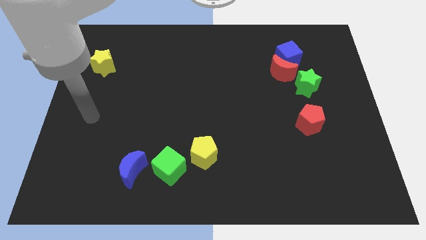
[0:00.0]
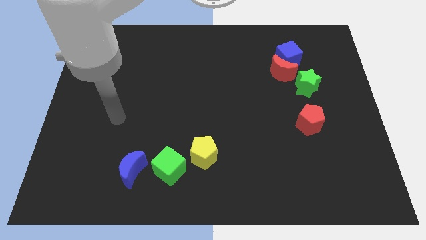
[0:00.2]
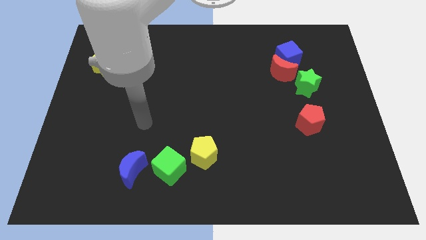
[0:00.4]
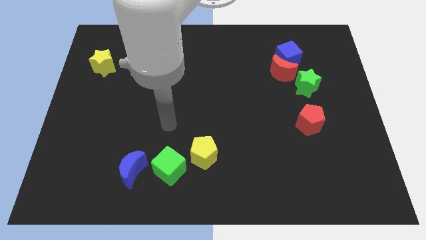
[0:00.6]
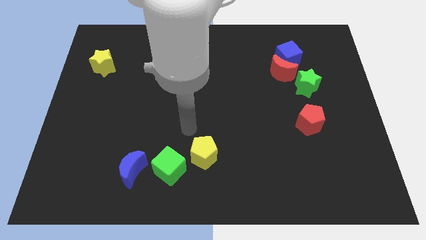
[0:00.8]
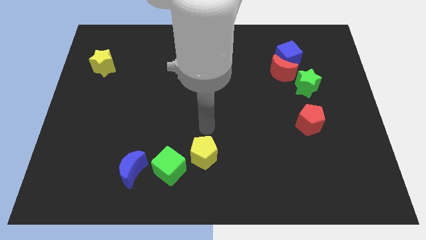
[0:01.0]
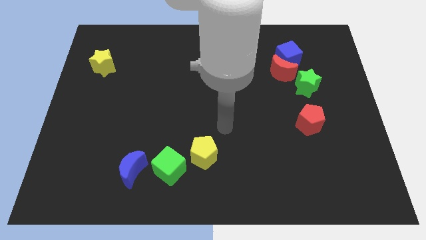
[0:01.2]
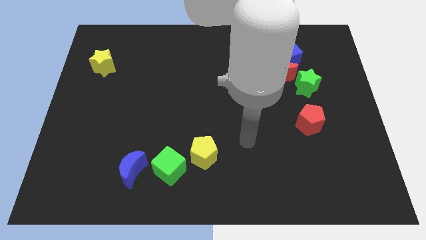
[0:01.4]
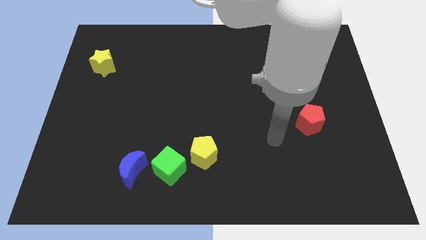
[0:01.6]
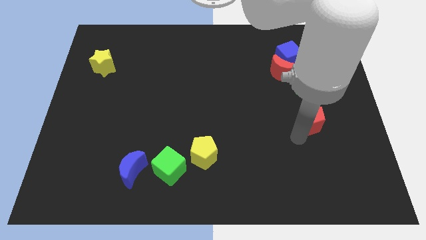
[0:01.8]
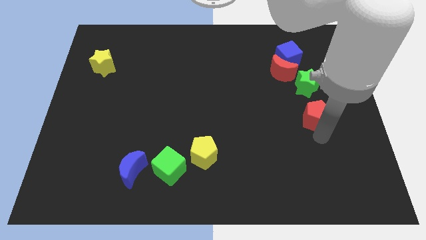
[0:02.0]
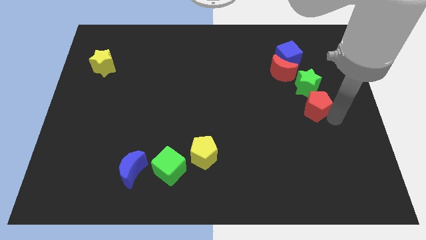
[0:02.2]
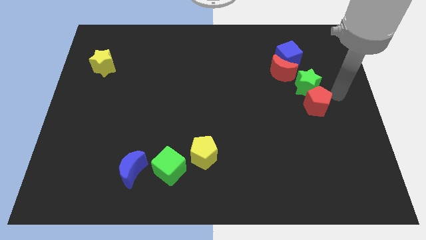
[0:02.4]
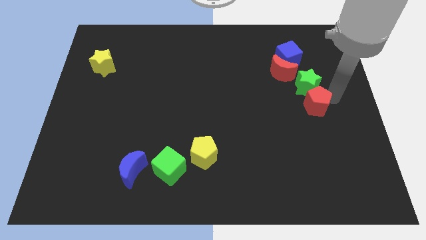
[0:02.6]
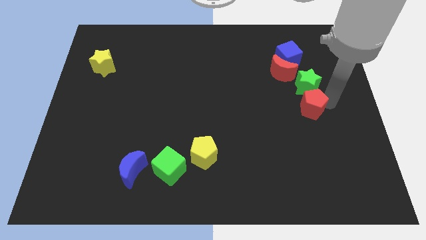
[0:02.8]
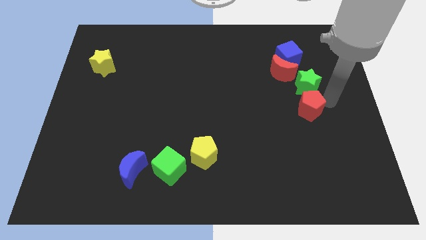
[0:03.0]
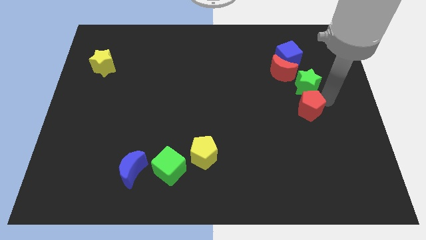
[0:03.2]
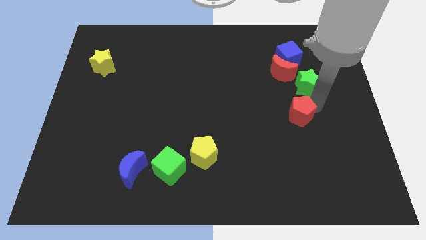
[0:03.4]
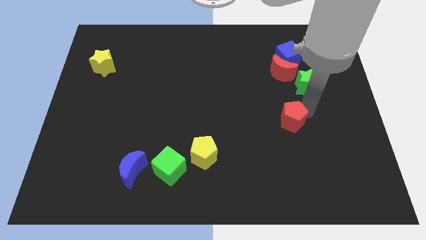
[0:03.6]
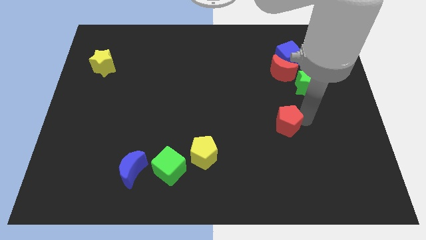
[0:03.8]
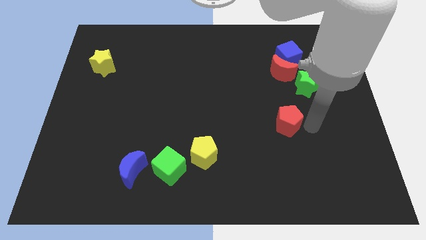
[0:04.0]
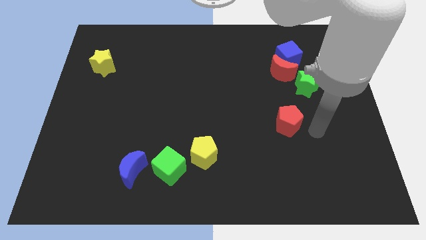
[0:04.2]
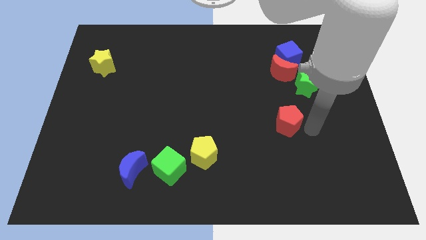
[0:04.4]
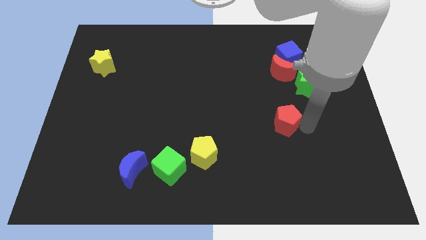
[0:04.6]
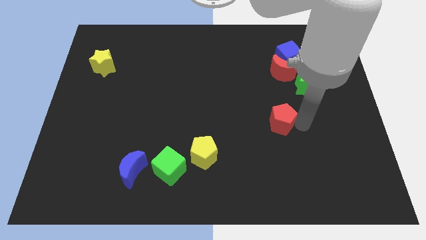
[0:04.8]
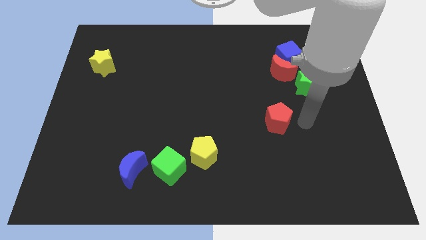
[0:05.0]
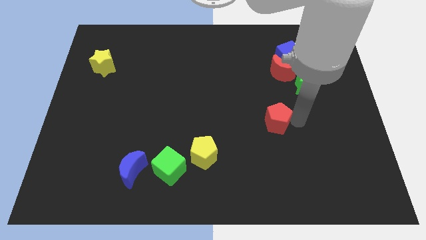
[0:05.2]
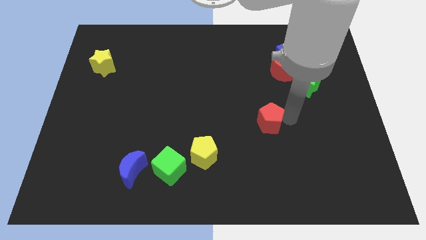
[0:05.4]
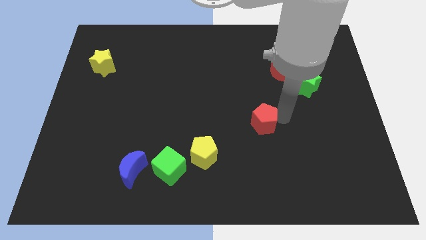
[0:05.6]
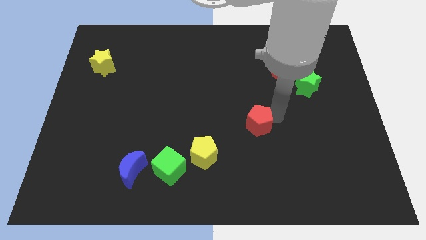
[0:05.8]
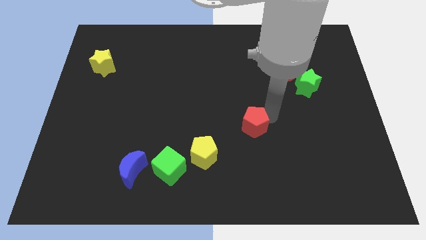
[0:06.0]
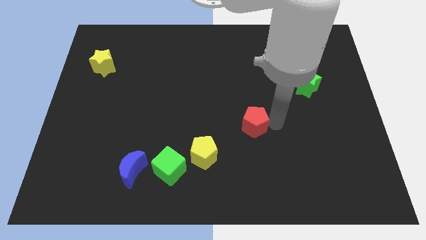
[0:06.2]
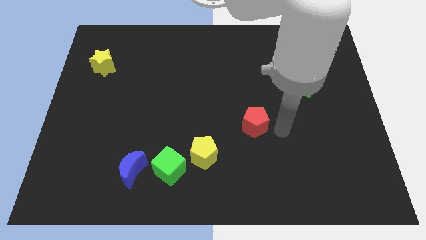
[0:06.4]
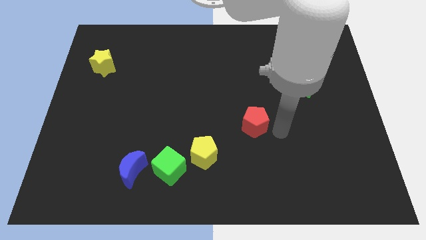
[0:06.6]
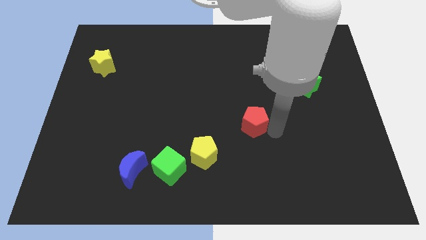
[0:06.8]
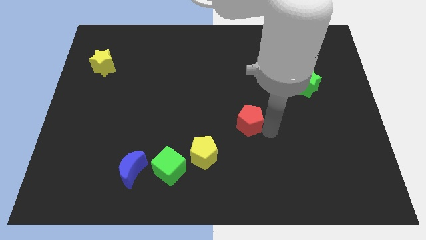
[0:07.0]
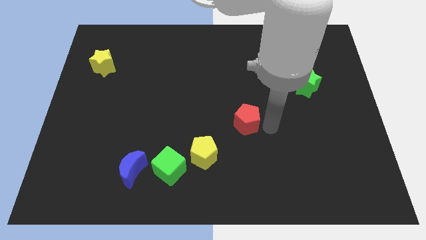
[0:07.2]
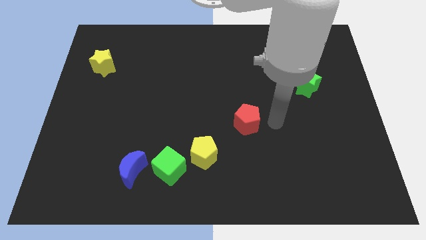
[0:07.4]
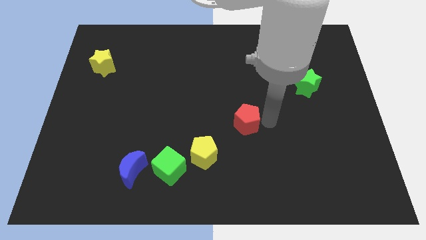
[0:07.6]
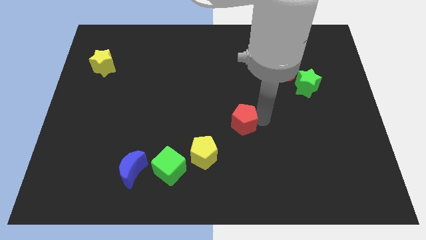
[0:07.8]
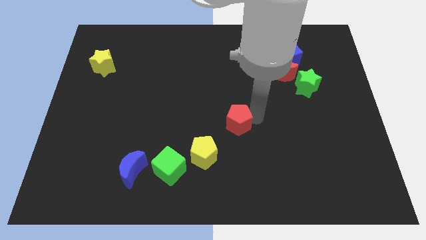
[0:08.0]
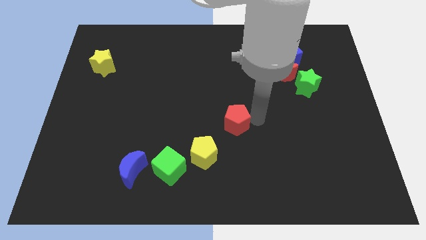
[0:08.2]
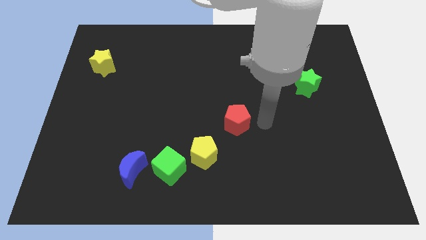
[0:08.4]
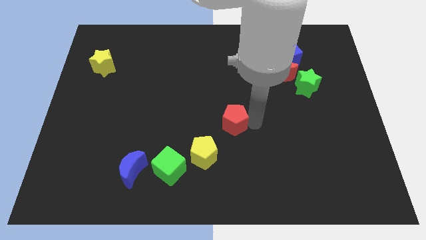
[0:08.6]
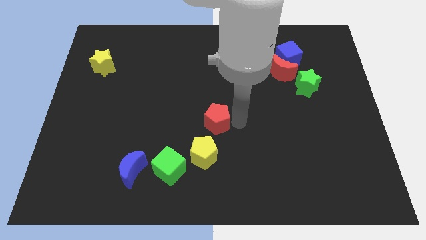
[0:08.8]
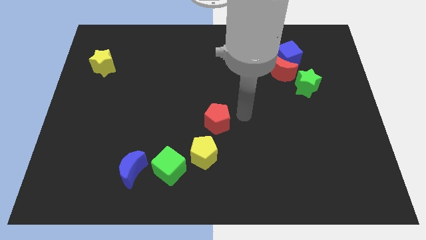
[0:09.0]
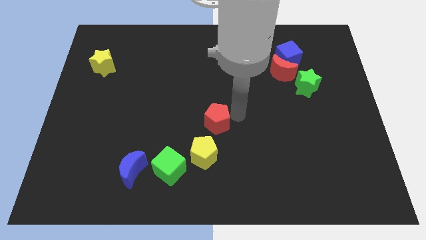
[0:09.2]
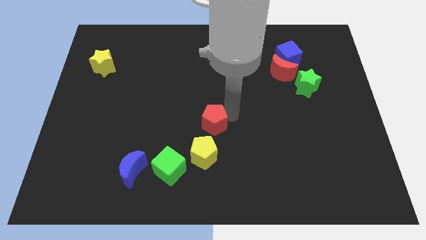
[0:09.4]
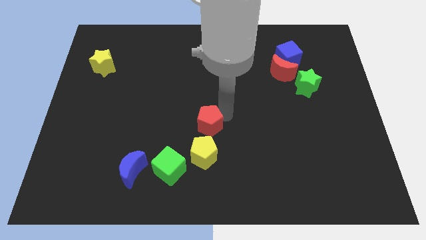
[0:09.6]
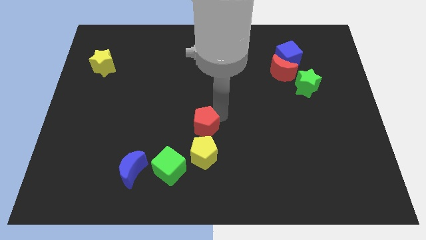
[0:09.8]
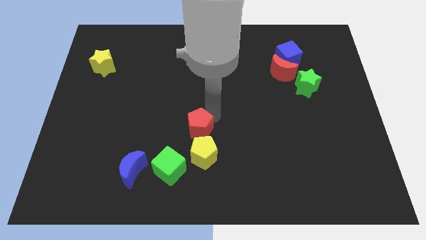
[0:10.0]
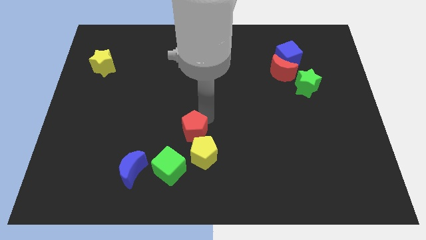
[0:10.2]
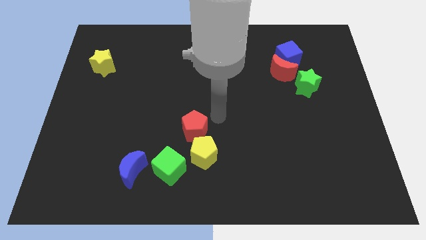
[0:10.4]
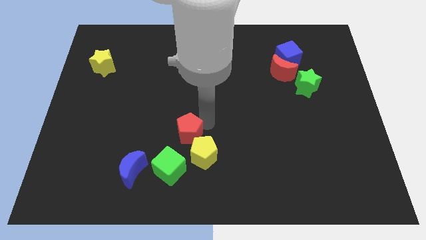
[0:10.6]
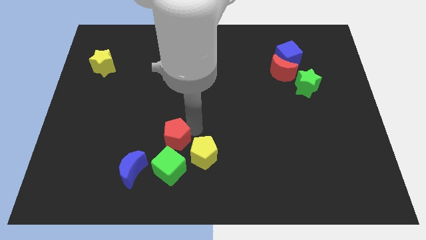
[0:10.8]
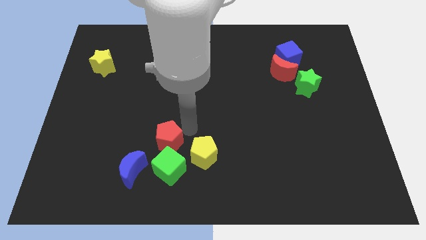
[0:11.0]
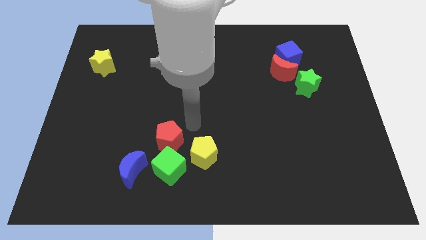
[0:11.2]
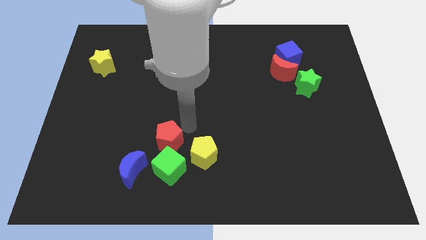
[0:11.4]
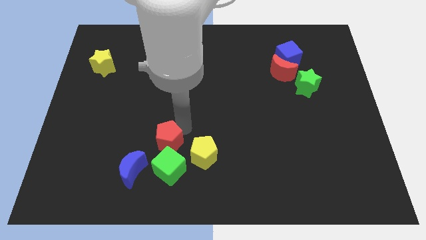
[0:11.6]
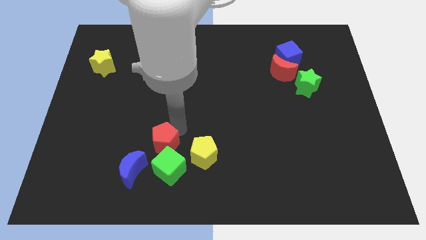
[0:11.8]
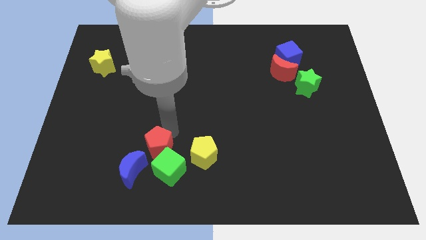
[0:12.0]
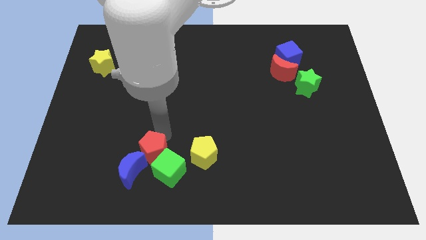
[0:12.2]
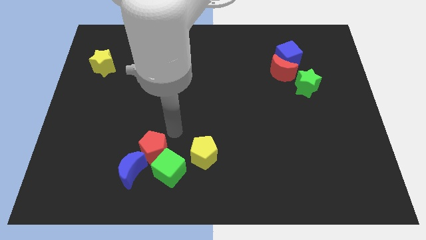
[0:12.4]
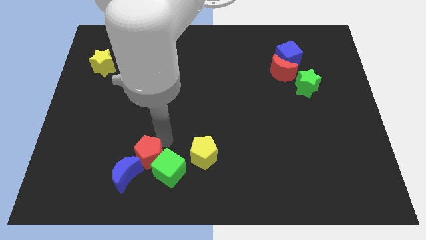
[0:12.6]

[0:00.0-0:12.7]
push the red pentagon to the blue moon
